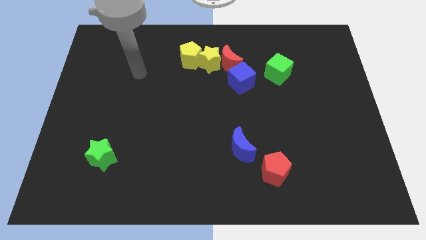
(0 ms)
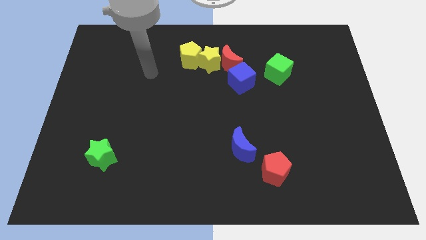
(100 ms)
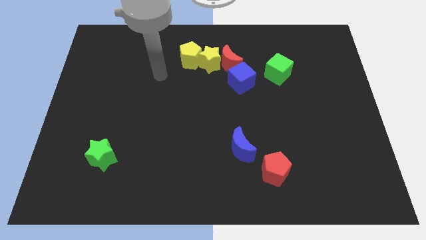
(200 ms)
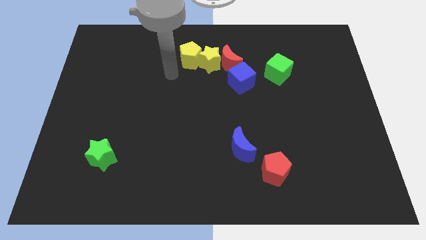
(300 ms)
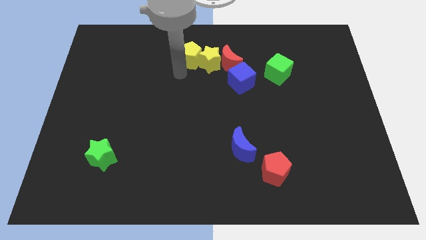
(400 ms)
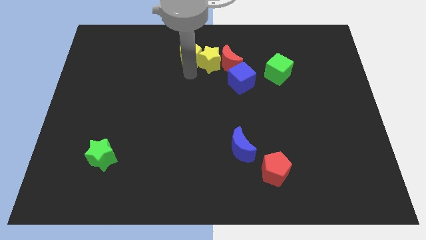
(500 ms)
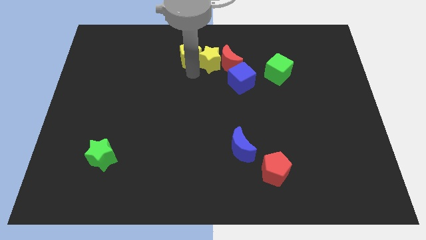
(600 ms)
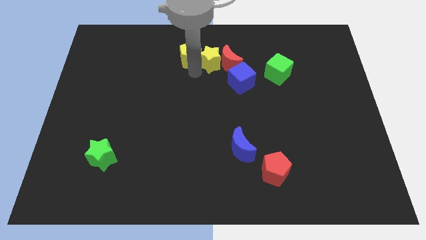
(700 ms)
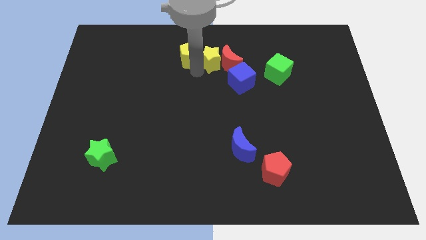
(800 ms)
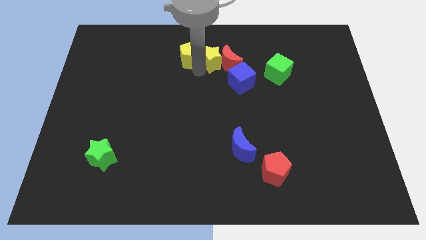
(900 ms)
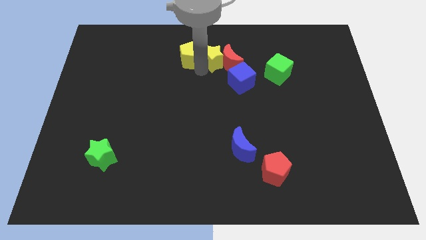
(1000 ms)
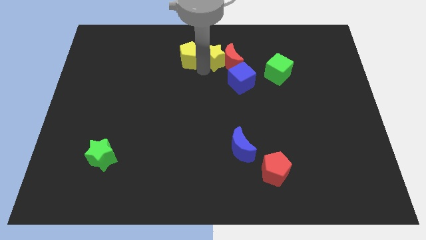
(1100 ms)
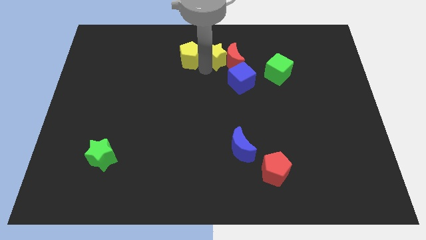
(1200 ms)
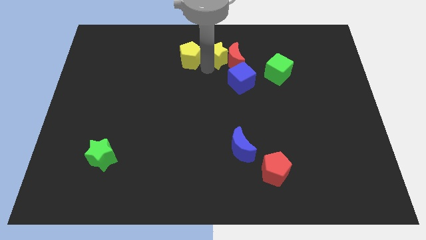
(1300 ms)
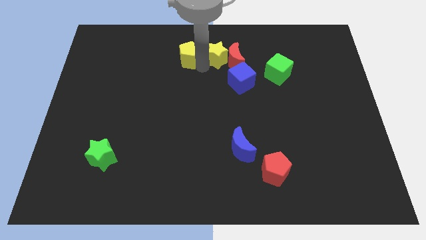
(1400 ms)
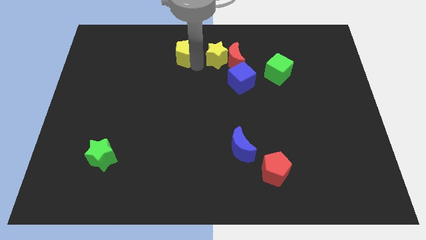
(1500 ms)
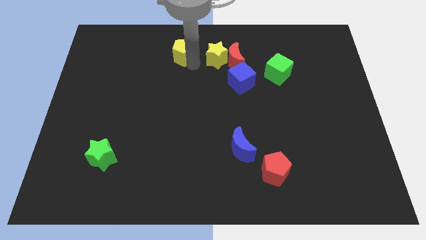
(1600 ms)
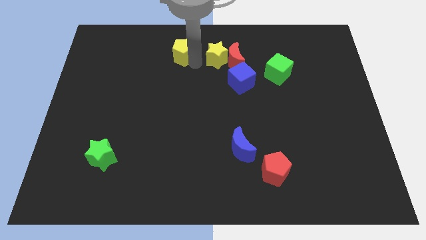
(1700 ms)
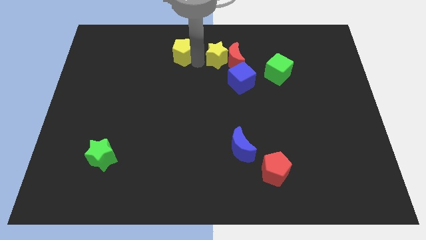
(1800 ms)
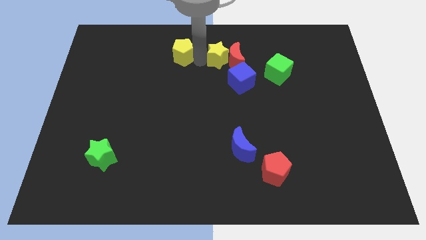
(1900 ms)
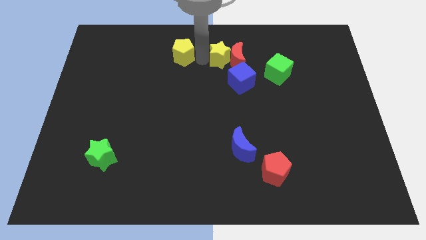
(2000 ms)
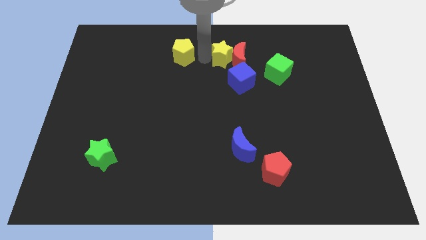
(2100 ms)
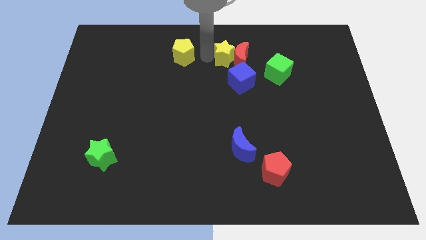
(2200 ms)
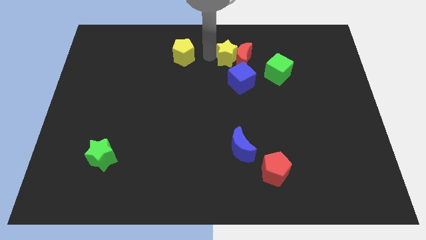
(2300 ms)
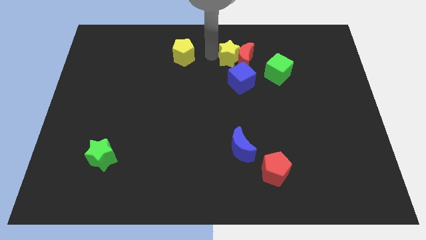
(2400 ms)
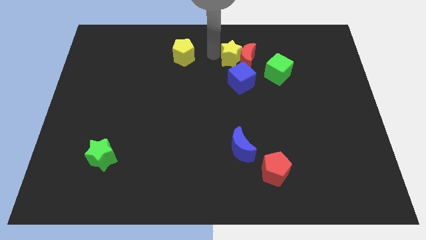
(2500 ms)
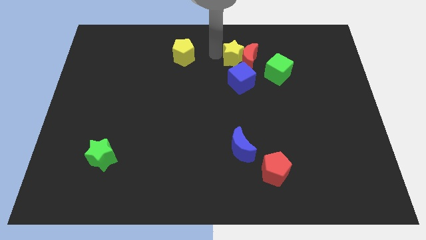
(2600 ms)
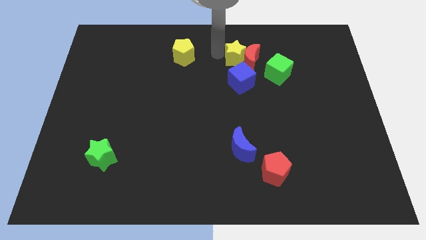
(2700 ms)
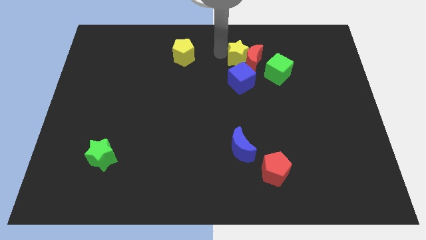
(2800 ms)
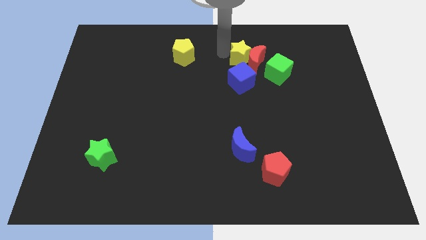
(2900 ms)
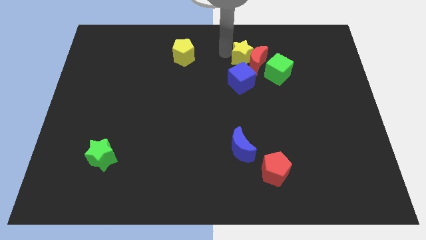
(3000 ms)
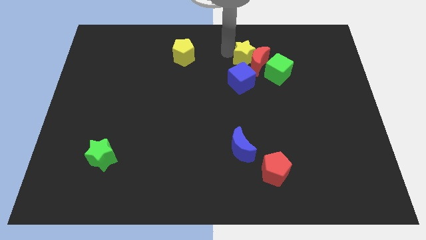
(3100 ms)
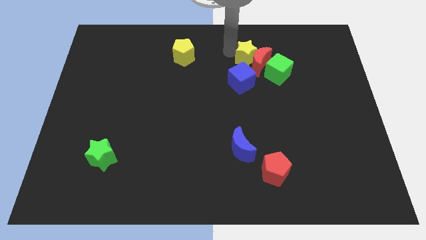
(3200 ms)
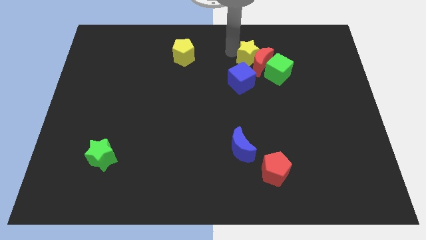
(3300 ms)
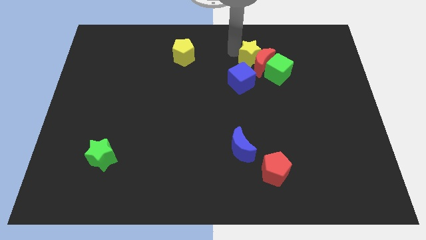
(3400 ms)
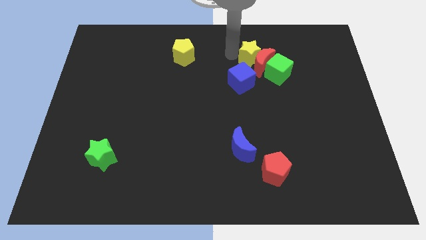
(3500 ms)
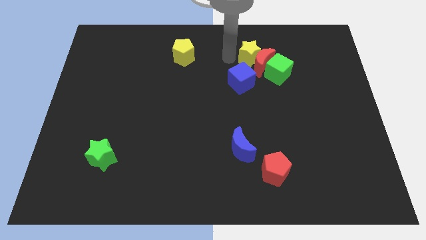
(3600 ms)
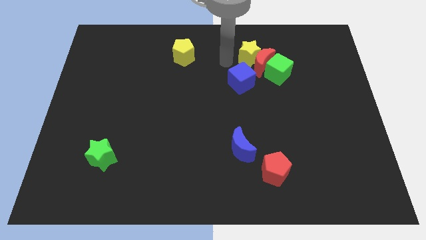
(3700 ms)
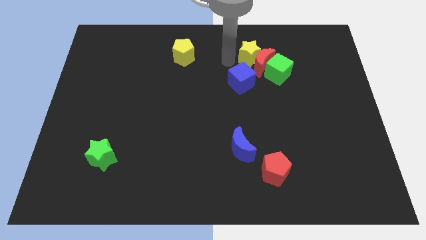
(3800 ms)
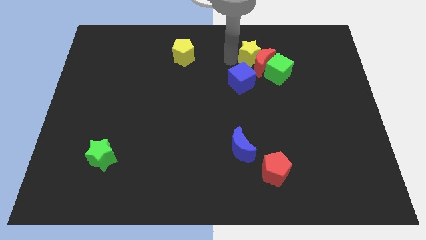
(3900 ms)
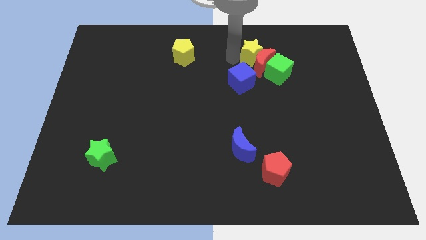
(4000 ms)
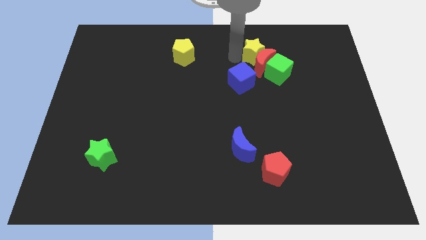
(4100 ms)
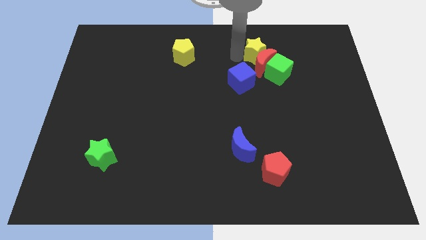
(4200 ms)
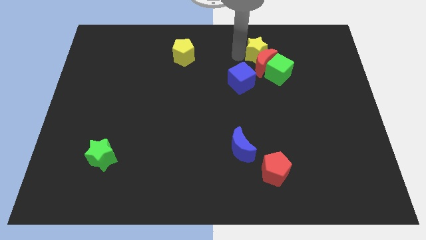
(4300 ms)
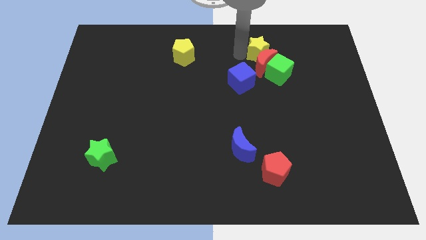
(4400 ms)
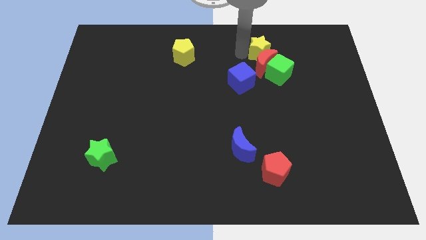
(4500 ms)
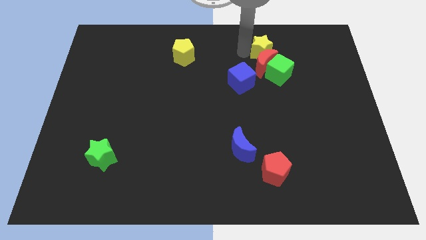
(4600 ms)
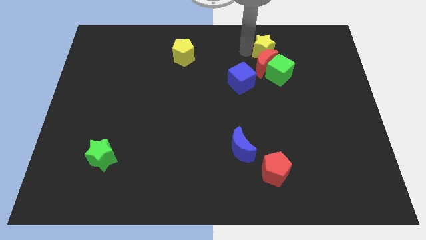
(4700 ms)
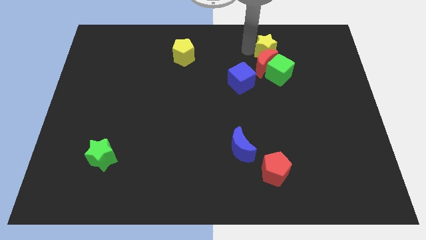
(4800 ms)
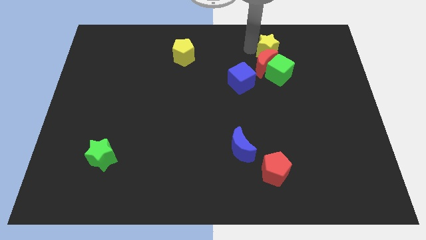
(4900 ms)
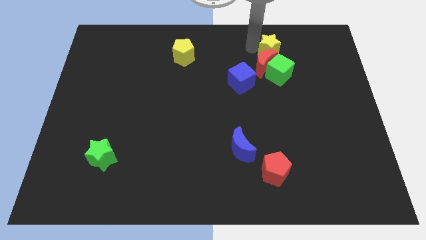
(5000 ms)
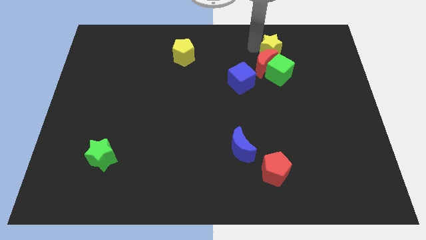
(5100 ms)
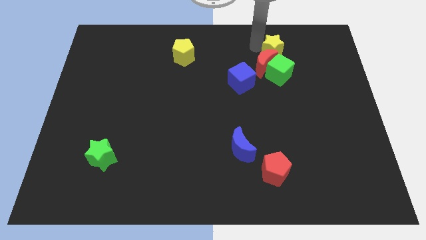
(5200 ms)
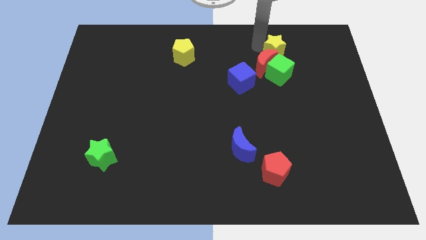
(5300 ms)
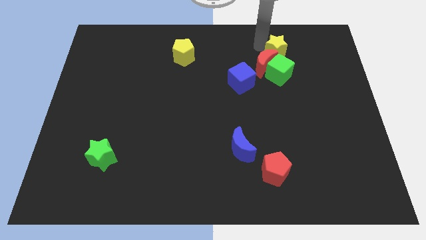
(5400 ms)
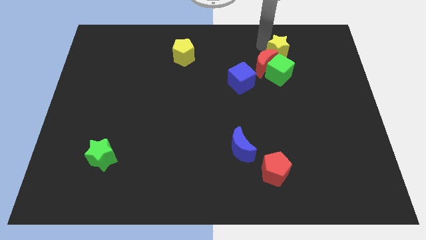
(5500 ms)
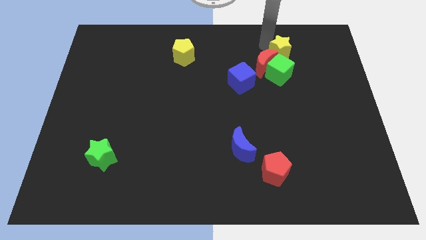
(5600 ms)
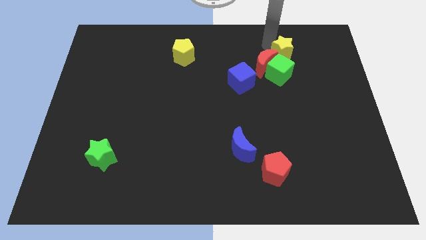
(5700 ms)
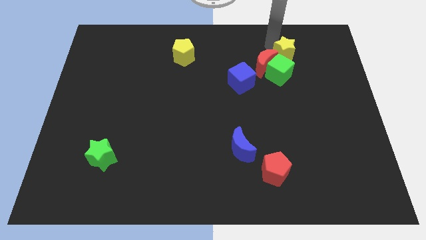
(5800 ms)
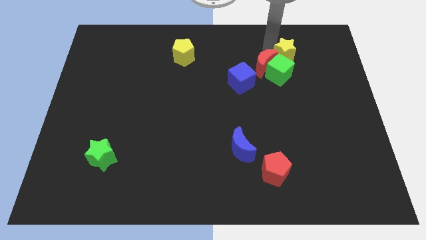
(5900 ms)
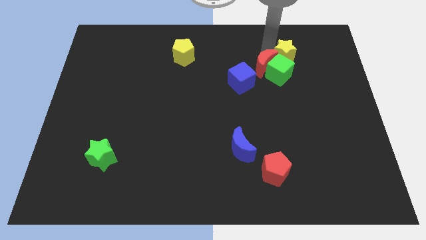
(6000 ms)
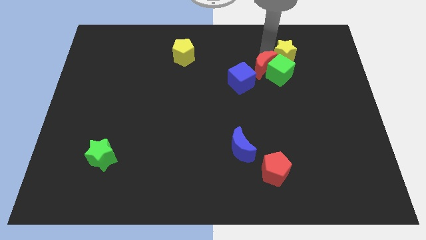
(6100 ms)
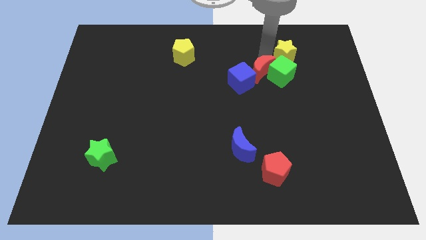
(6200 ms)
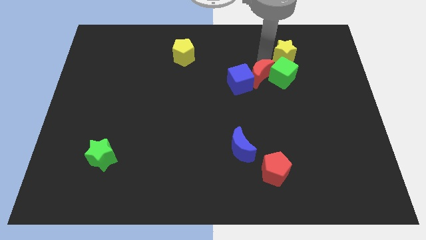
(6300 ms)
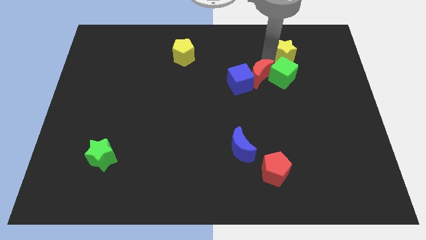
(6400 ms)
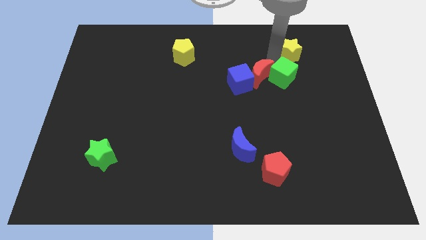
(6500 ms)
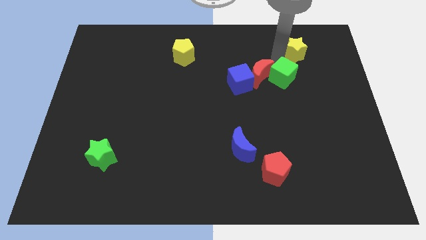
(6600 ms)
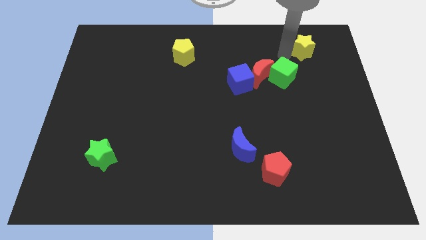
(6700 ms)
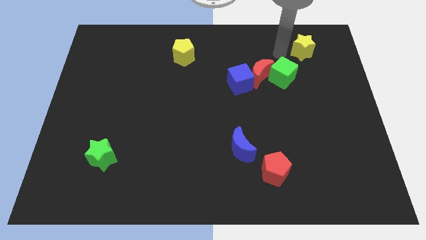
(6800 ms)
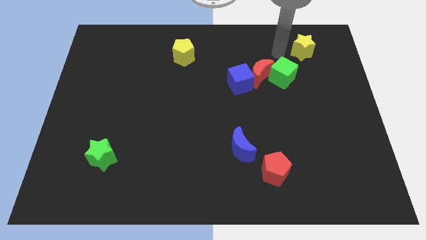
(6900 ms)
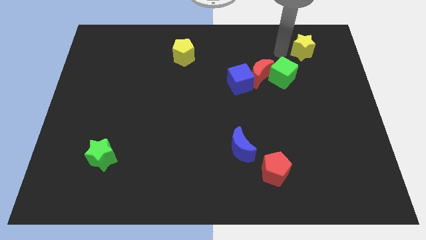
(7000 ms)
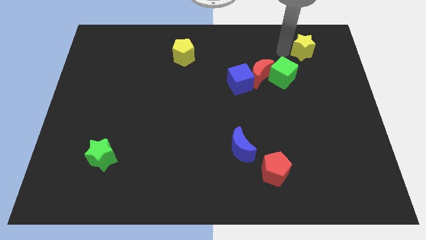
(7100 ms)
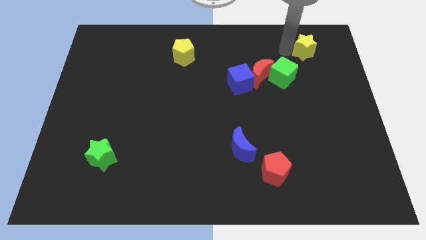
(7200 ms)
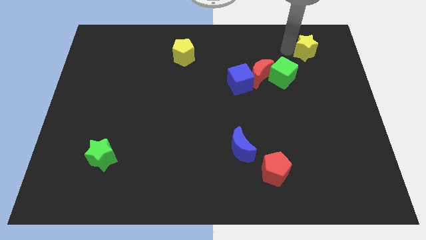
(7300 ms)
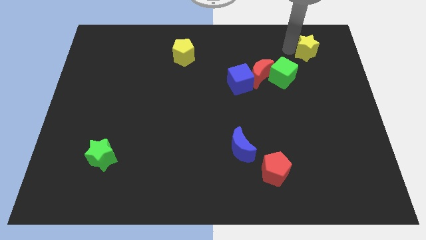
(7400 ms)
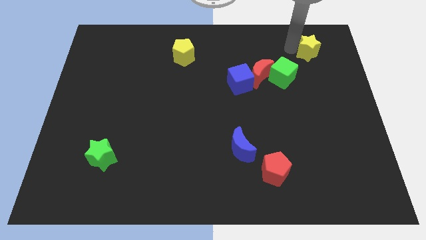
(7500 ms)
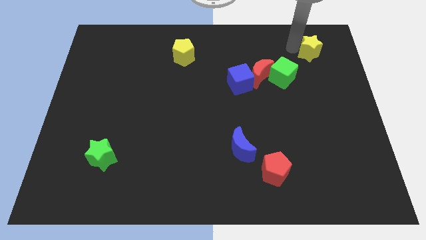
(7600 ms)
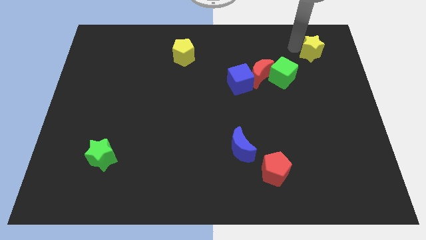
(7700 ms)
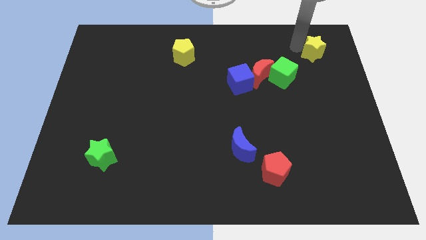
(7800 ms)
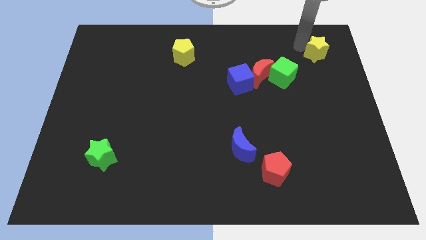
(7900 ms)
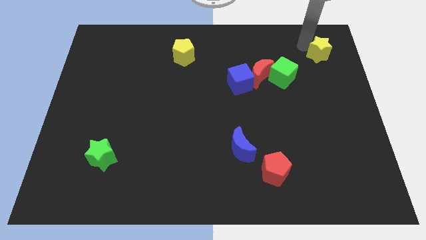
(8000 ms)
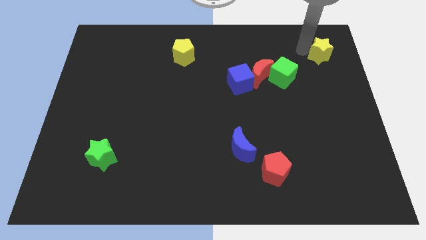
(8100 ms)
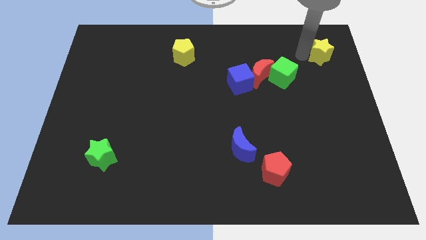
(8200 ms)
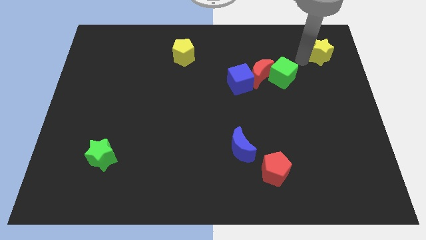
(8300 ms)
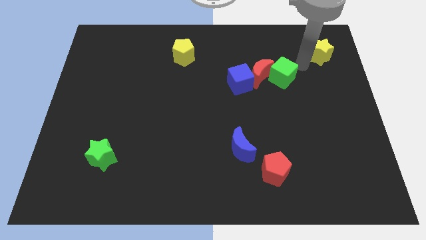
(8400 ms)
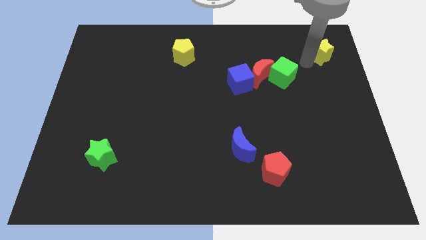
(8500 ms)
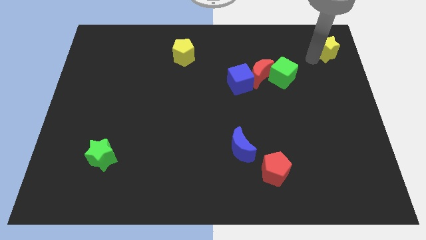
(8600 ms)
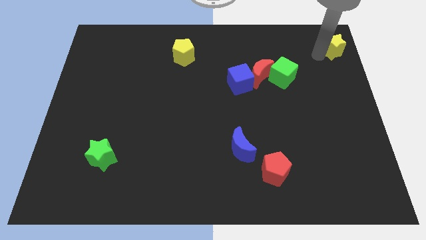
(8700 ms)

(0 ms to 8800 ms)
move the yellow star to the top right of the board
